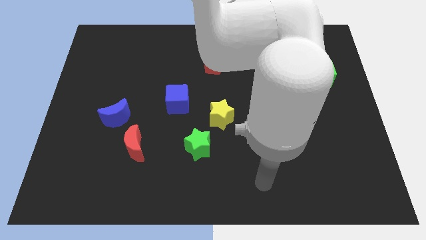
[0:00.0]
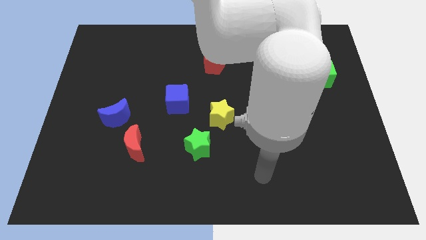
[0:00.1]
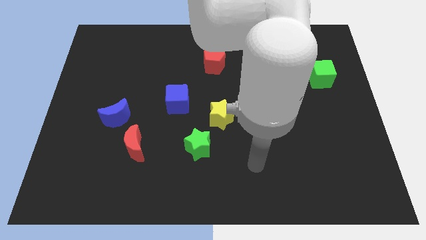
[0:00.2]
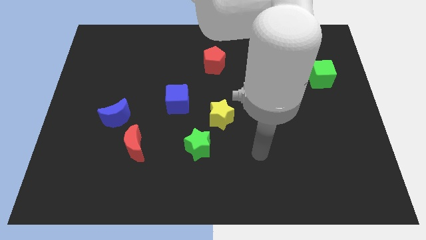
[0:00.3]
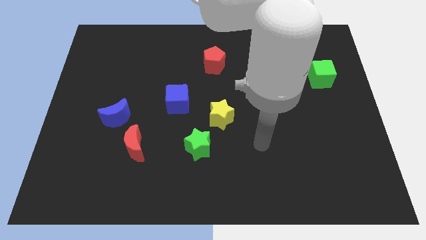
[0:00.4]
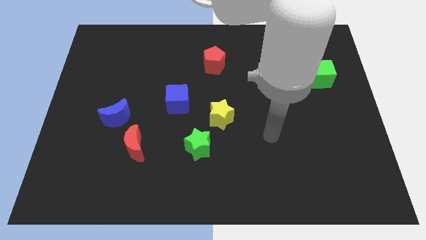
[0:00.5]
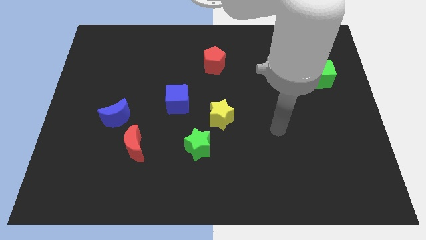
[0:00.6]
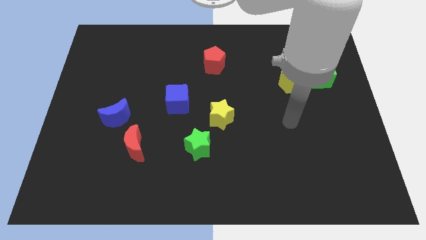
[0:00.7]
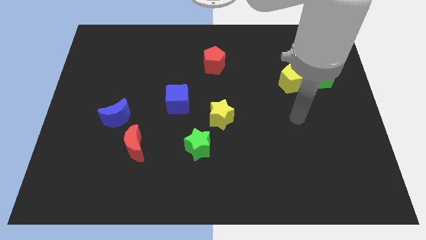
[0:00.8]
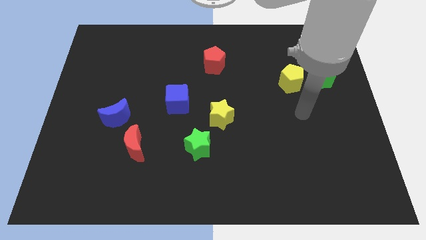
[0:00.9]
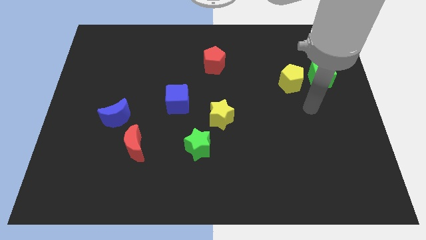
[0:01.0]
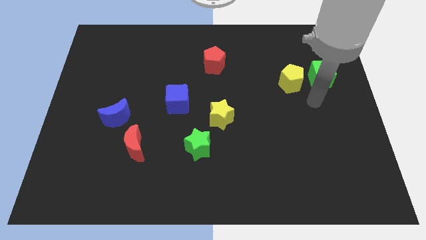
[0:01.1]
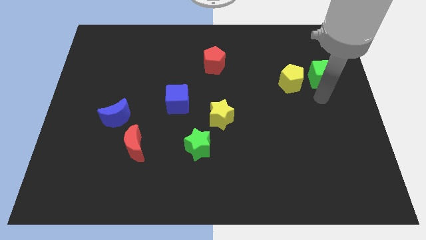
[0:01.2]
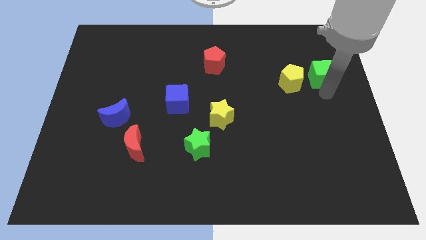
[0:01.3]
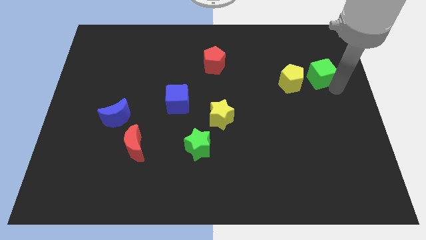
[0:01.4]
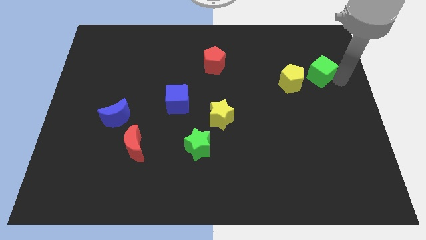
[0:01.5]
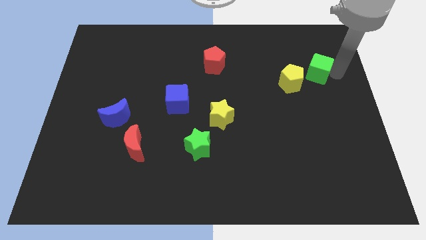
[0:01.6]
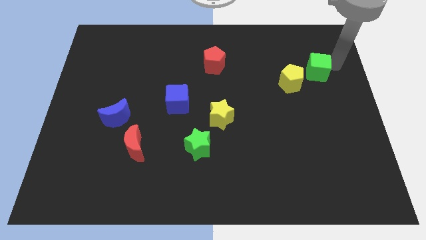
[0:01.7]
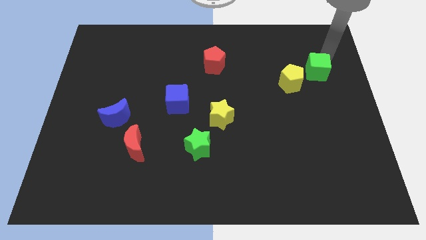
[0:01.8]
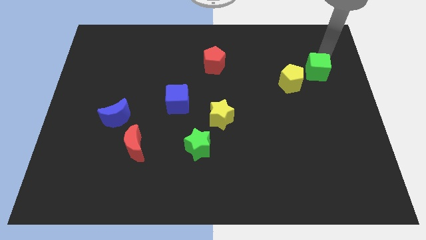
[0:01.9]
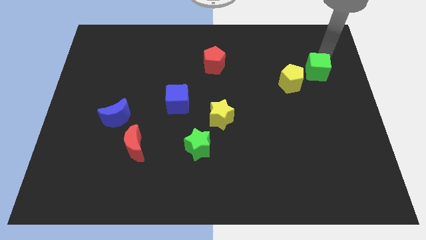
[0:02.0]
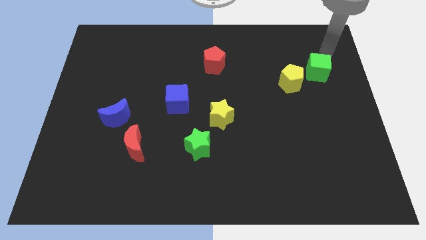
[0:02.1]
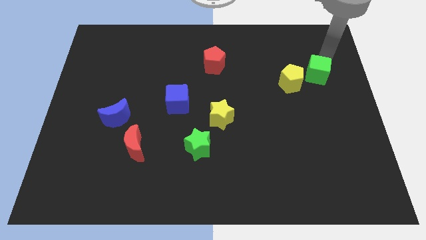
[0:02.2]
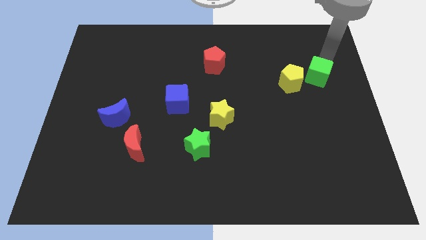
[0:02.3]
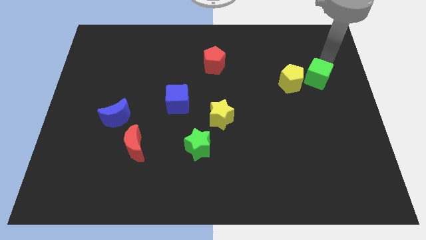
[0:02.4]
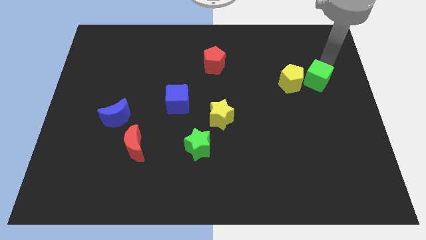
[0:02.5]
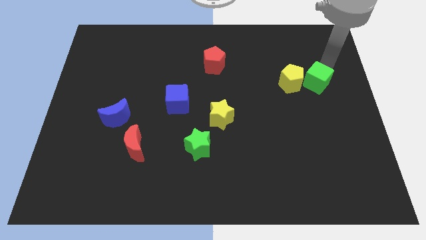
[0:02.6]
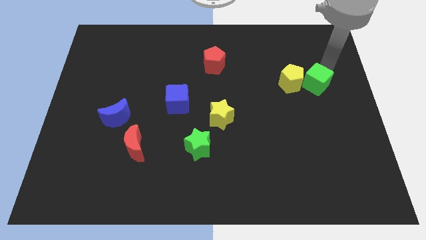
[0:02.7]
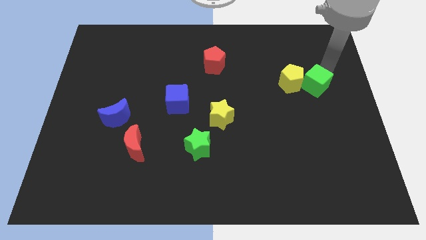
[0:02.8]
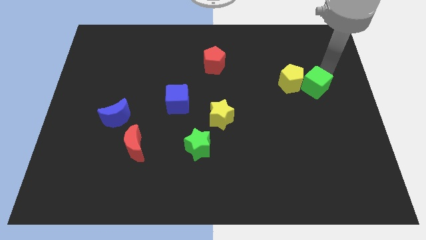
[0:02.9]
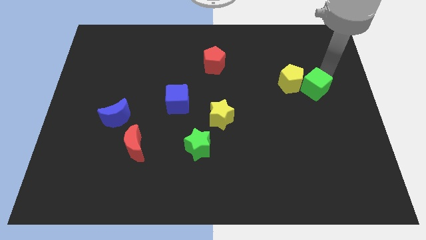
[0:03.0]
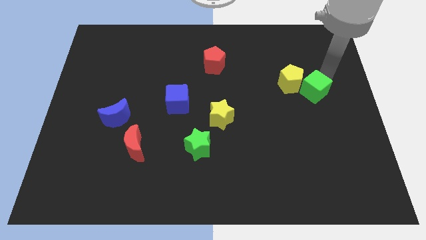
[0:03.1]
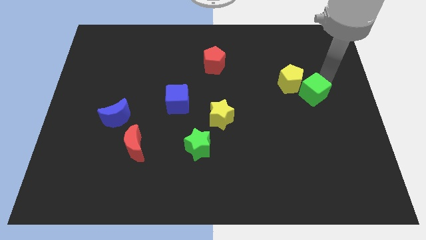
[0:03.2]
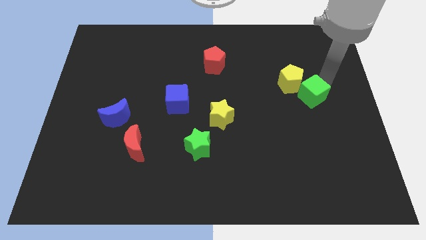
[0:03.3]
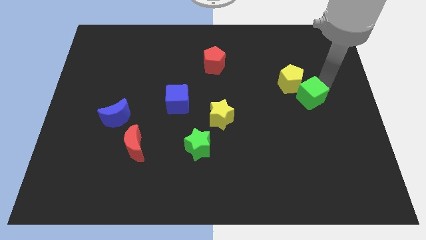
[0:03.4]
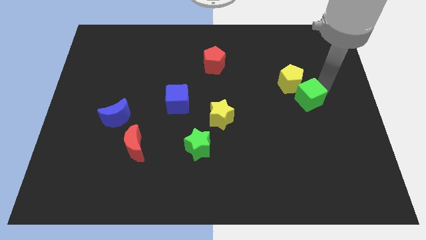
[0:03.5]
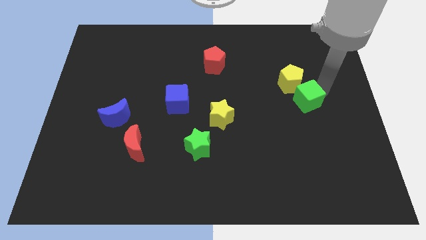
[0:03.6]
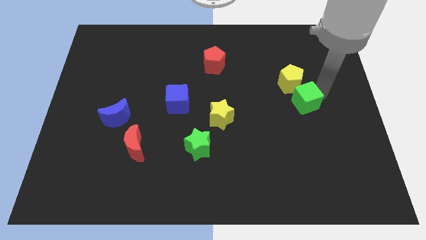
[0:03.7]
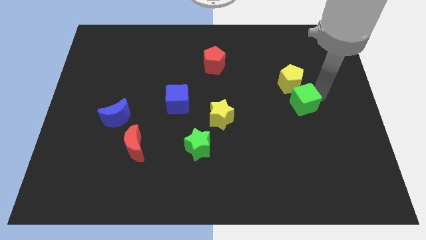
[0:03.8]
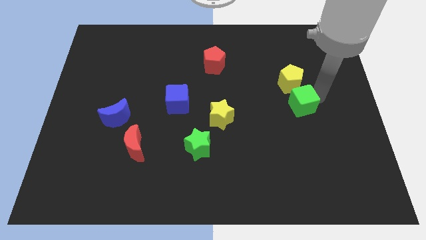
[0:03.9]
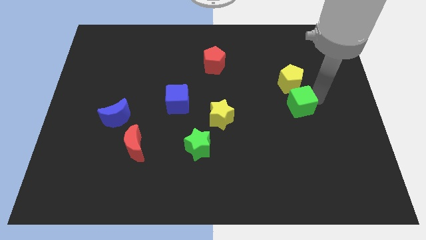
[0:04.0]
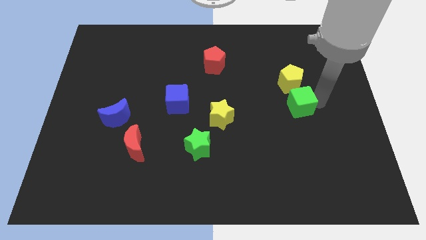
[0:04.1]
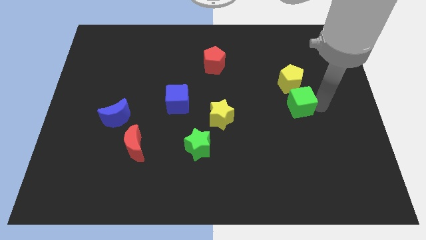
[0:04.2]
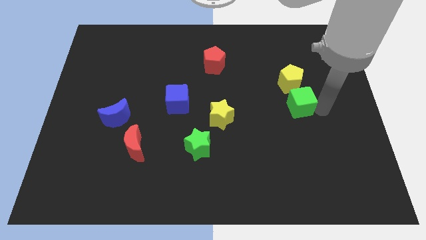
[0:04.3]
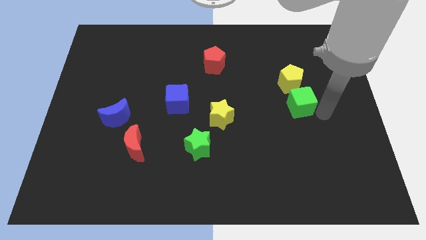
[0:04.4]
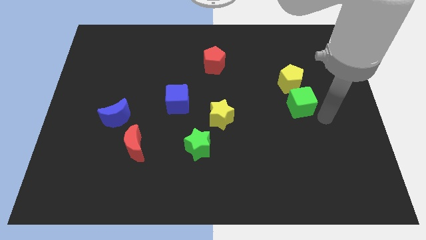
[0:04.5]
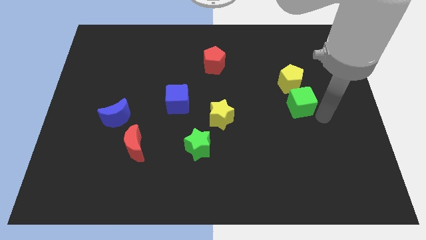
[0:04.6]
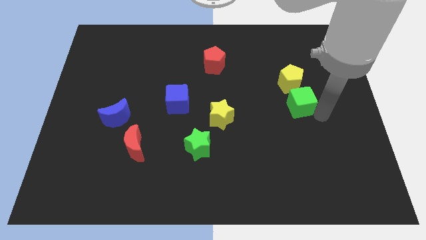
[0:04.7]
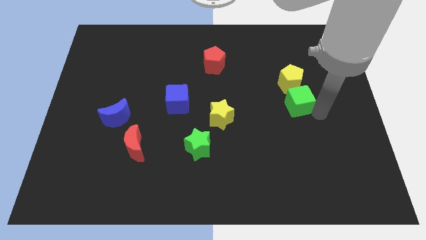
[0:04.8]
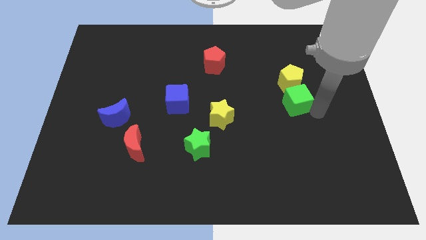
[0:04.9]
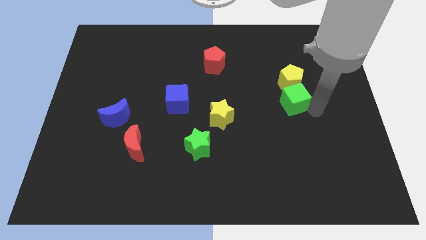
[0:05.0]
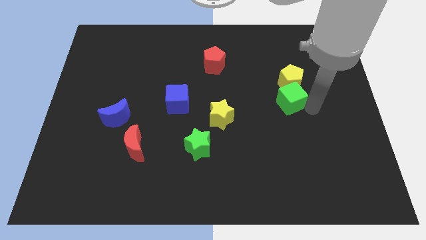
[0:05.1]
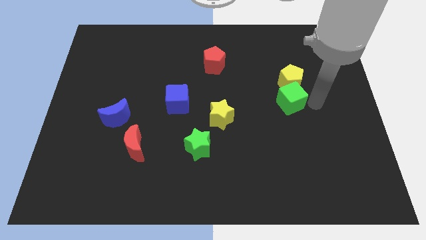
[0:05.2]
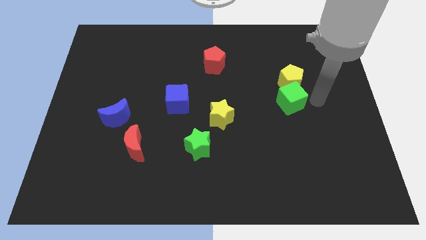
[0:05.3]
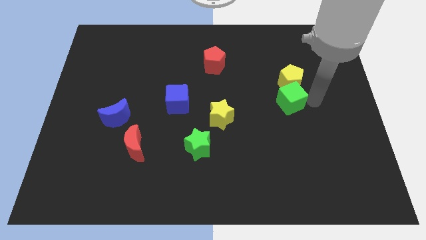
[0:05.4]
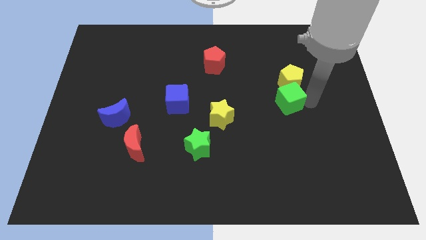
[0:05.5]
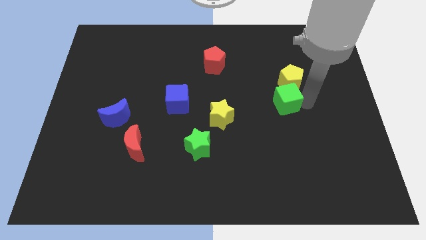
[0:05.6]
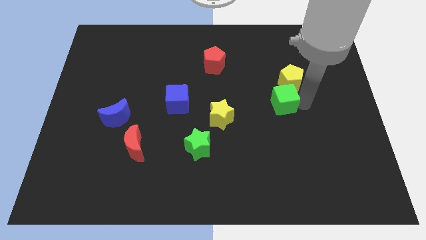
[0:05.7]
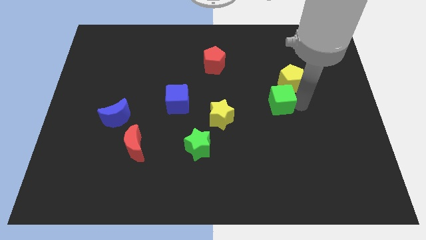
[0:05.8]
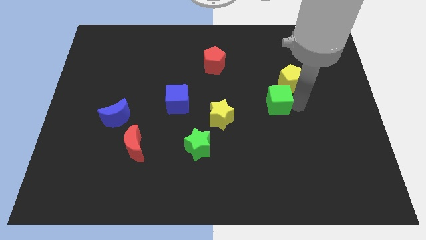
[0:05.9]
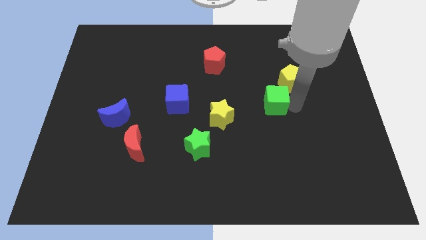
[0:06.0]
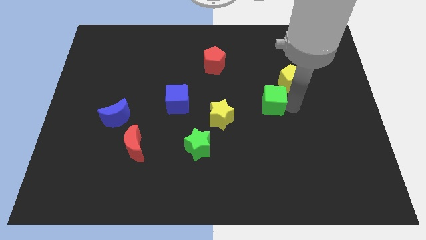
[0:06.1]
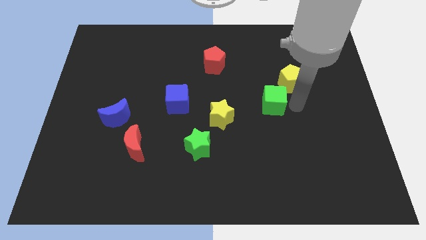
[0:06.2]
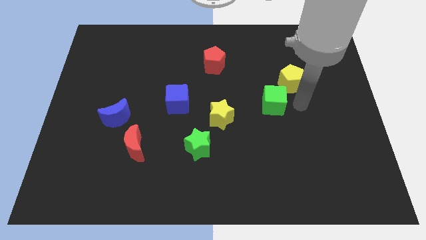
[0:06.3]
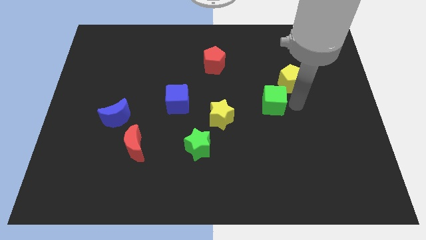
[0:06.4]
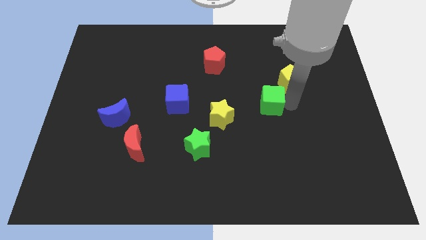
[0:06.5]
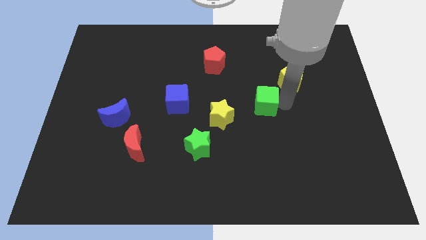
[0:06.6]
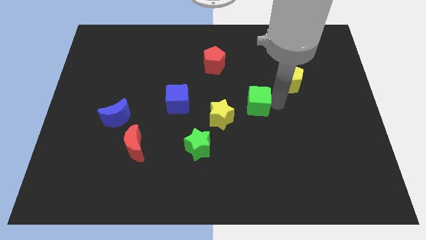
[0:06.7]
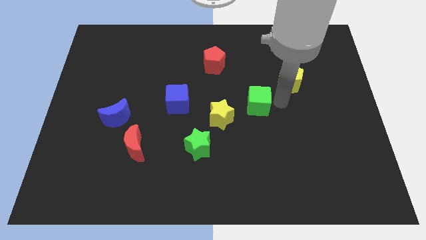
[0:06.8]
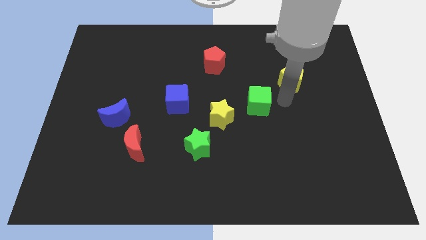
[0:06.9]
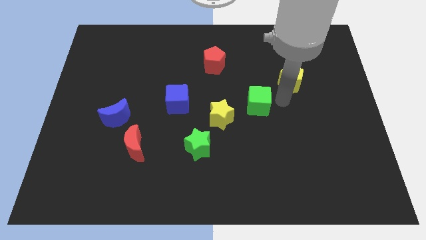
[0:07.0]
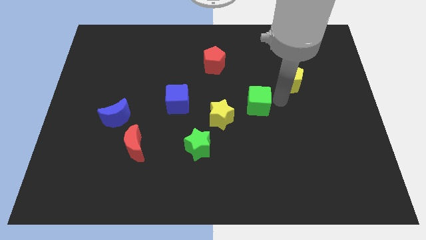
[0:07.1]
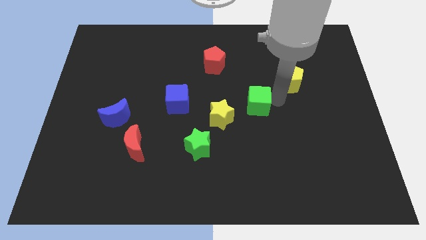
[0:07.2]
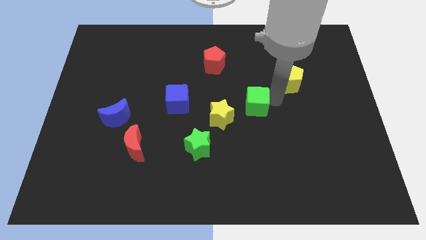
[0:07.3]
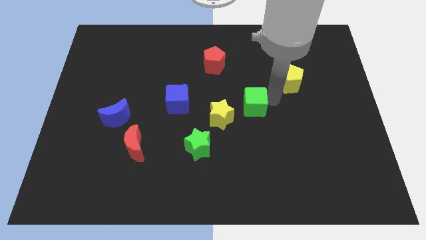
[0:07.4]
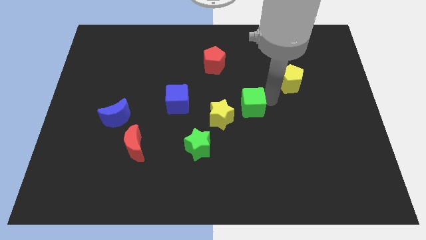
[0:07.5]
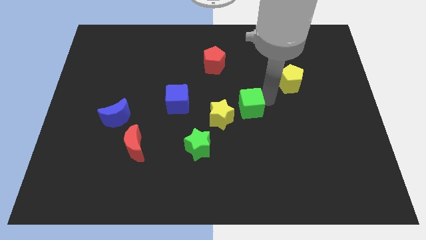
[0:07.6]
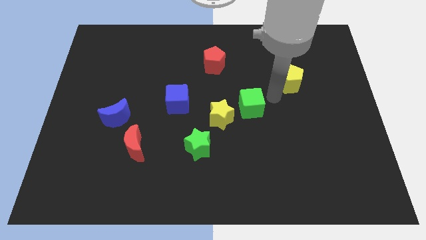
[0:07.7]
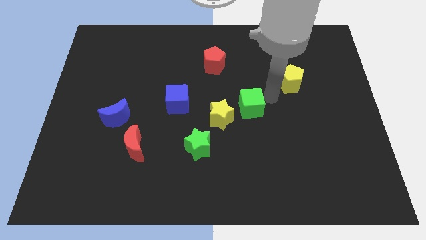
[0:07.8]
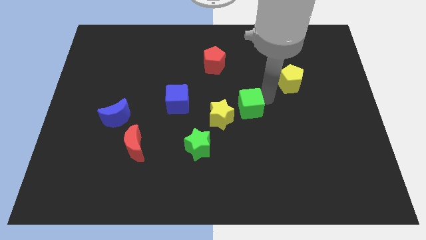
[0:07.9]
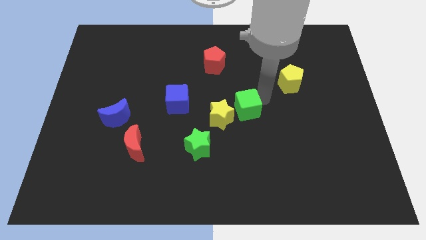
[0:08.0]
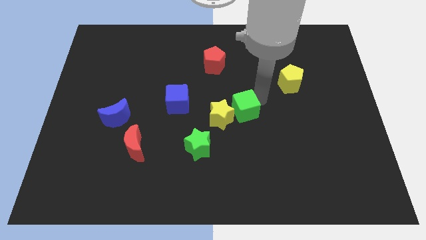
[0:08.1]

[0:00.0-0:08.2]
move the green cube to the yellow star
